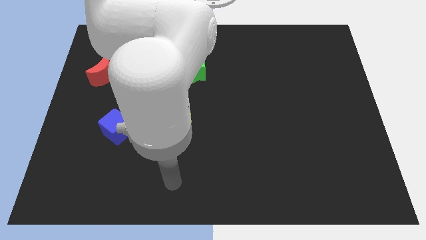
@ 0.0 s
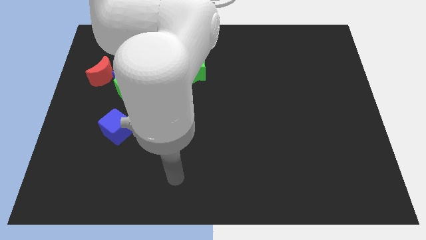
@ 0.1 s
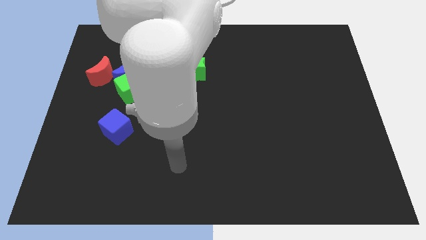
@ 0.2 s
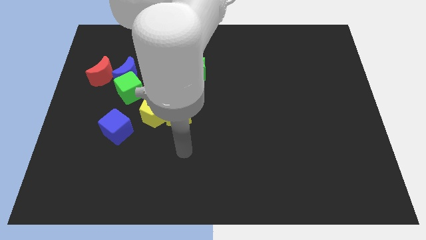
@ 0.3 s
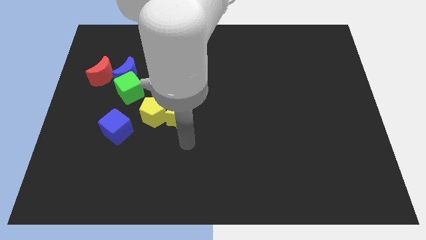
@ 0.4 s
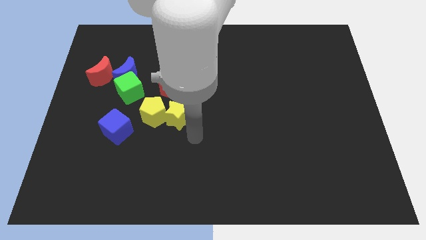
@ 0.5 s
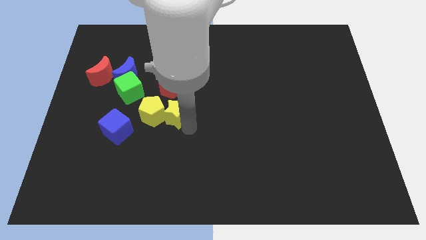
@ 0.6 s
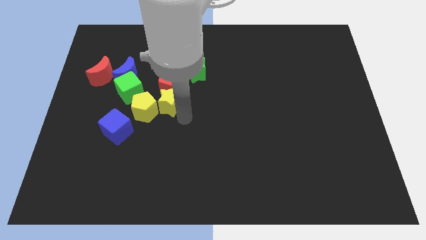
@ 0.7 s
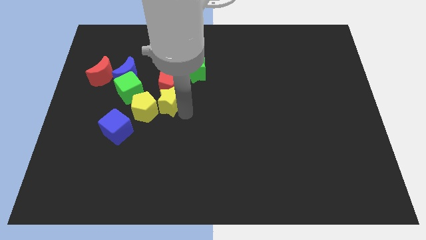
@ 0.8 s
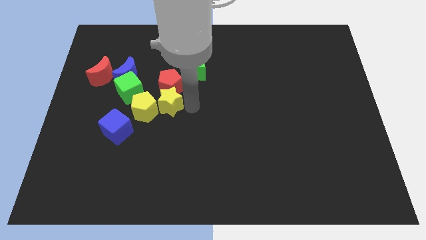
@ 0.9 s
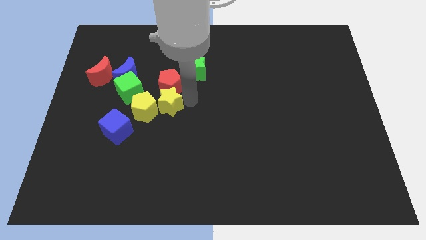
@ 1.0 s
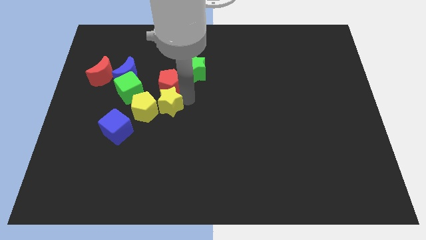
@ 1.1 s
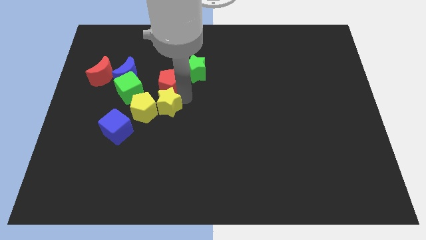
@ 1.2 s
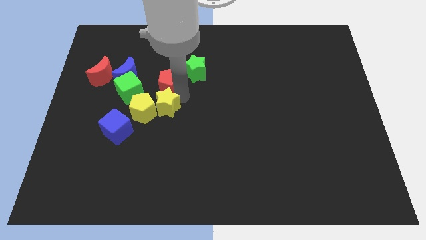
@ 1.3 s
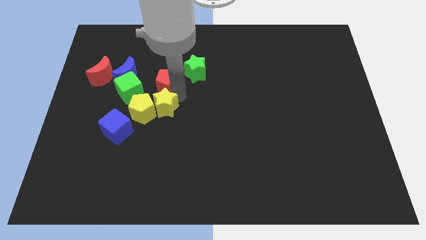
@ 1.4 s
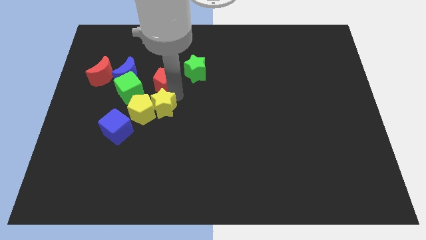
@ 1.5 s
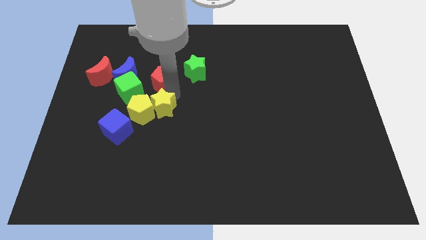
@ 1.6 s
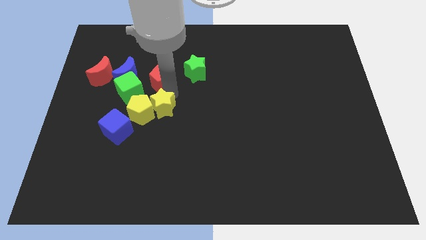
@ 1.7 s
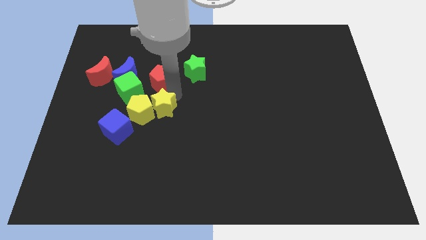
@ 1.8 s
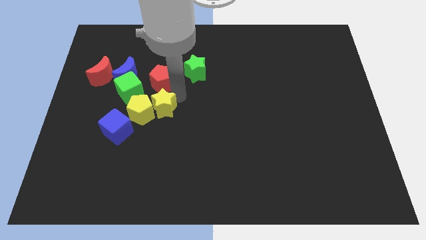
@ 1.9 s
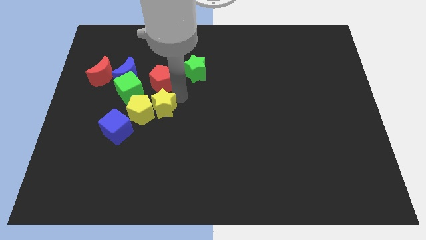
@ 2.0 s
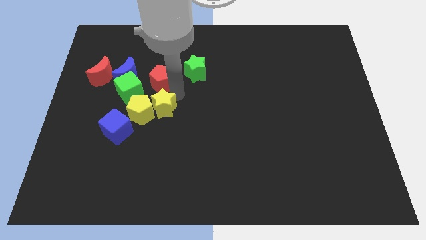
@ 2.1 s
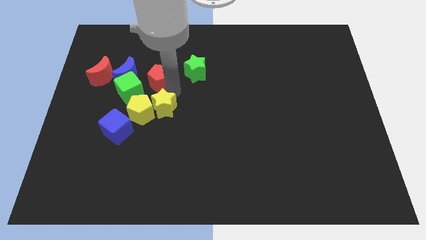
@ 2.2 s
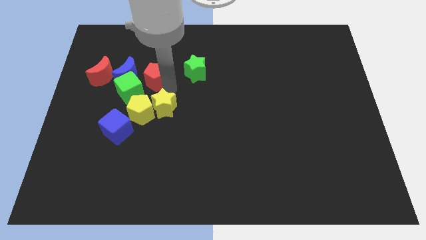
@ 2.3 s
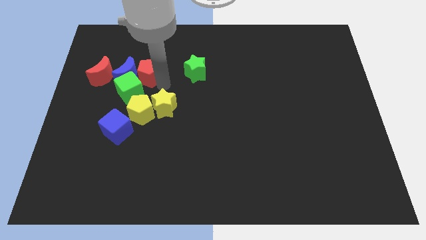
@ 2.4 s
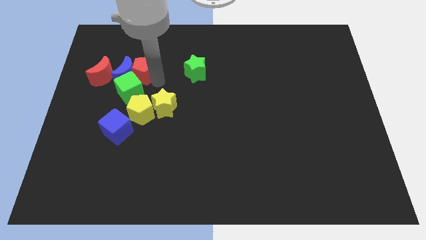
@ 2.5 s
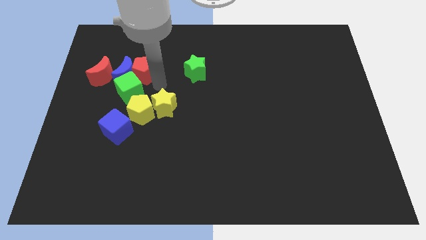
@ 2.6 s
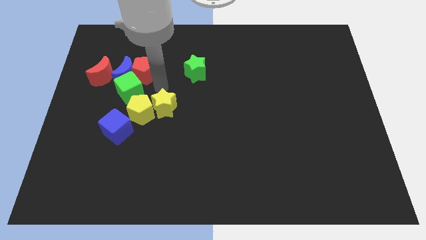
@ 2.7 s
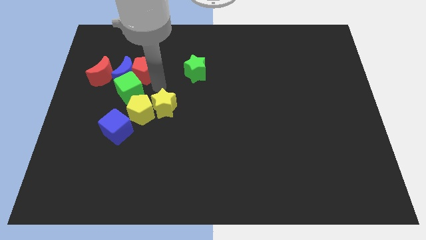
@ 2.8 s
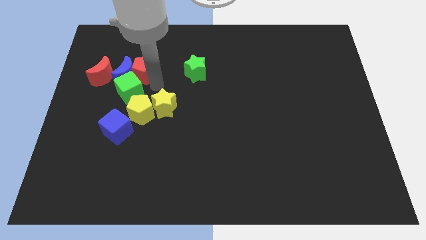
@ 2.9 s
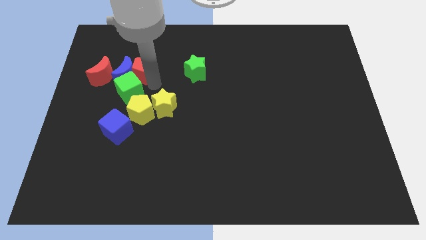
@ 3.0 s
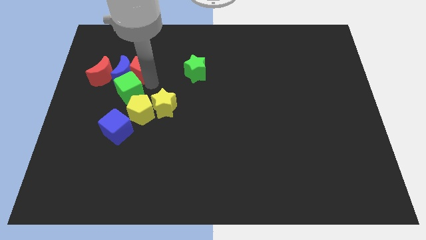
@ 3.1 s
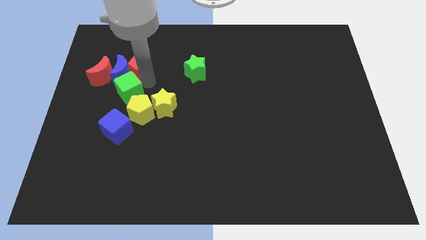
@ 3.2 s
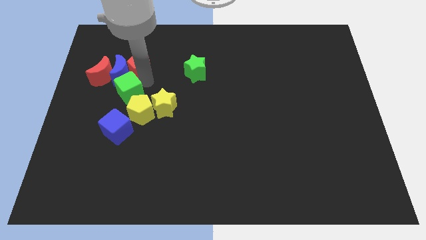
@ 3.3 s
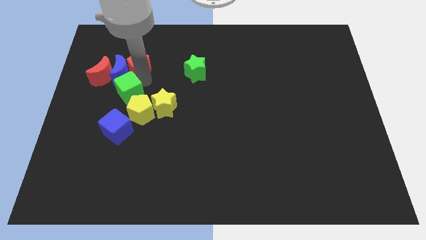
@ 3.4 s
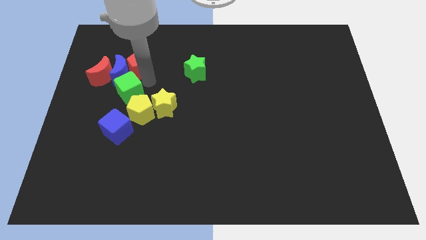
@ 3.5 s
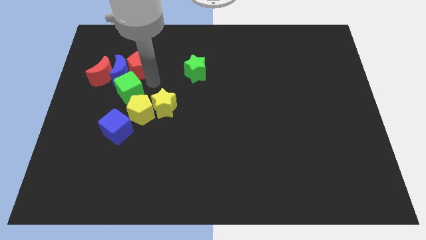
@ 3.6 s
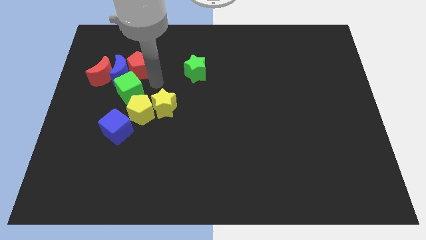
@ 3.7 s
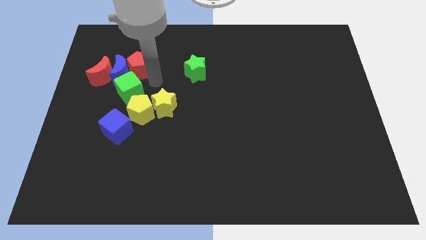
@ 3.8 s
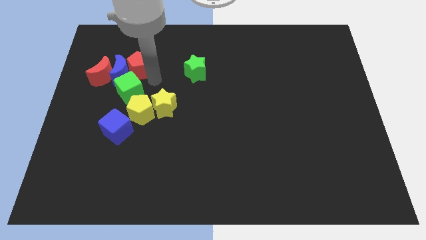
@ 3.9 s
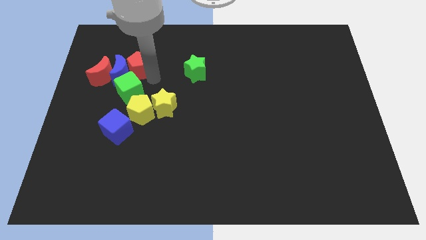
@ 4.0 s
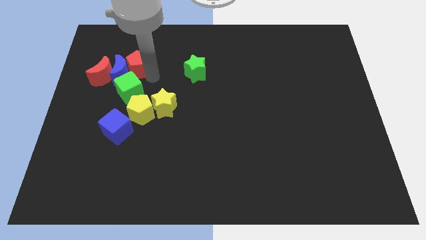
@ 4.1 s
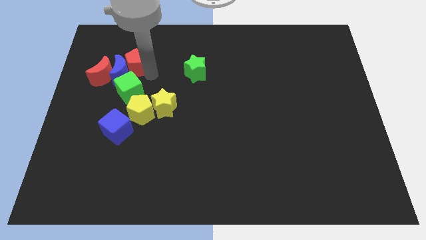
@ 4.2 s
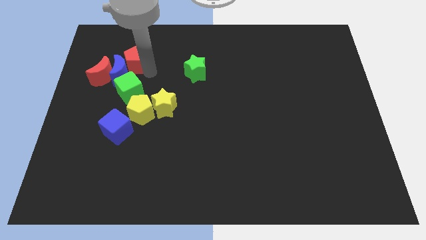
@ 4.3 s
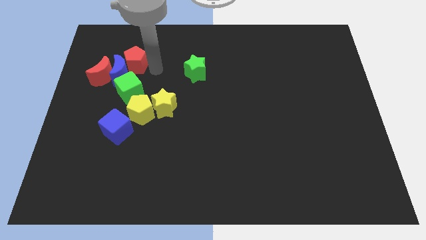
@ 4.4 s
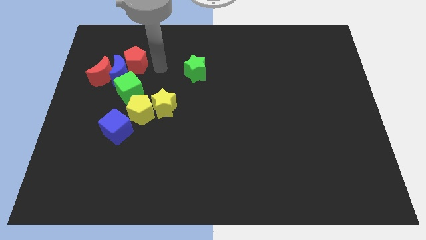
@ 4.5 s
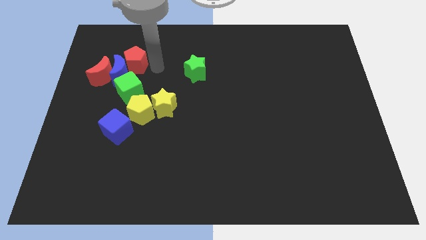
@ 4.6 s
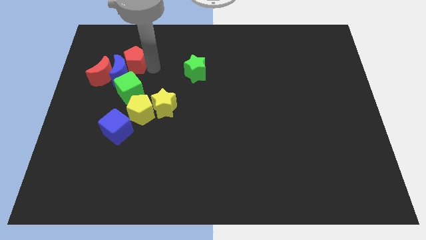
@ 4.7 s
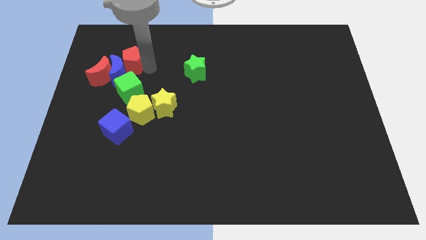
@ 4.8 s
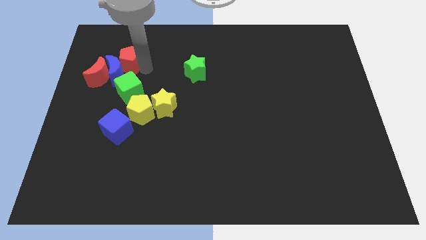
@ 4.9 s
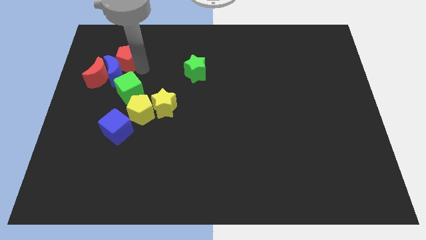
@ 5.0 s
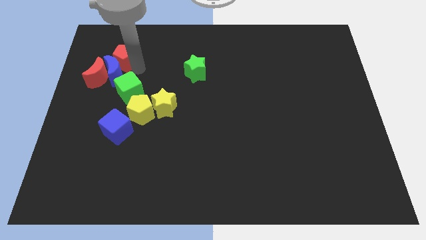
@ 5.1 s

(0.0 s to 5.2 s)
slide the red pentagon to the top left of the blue moon

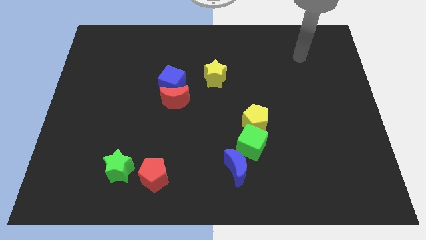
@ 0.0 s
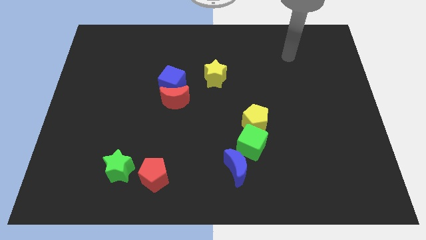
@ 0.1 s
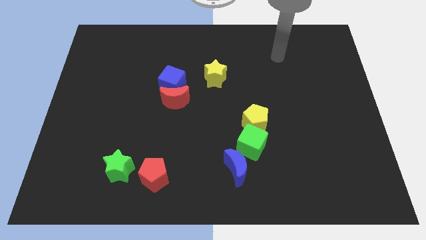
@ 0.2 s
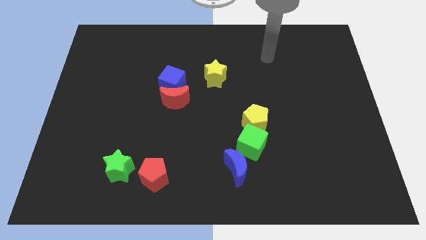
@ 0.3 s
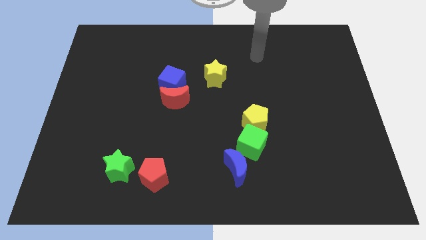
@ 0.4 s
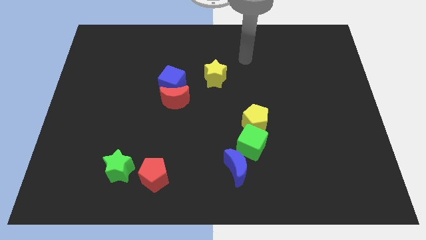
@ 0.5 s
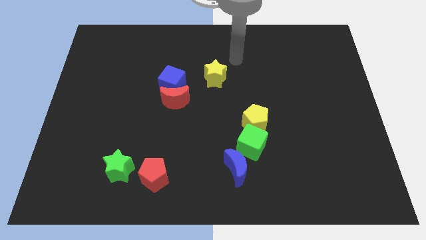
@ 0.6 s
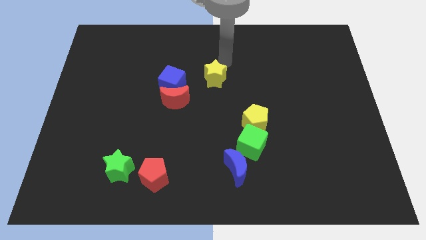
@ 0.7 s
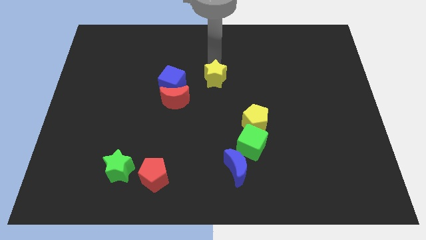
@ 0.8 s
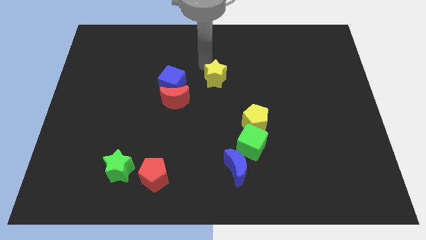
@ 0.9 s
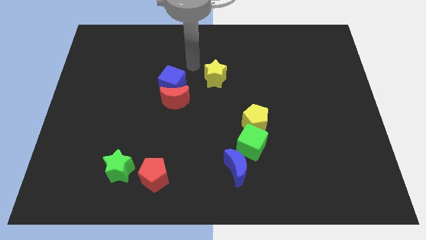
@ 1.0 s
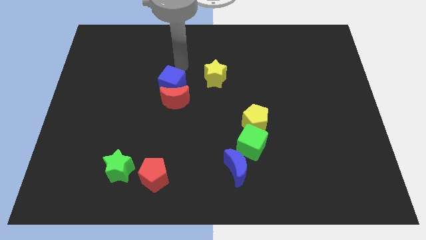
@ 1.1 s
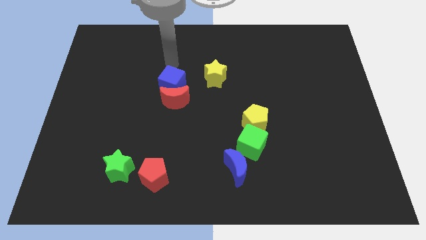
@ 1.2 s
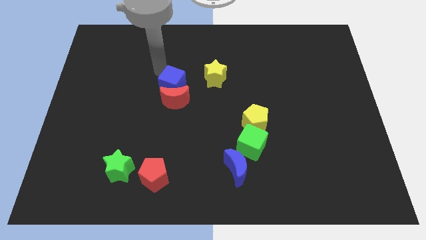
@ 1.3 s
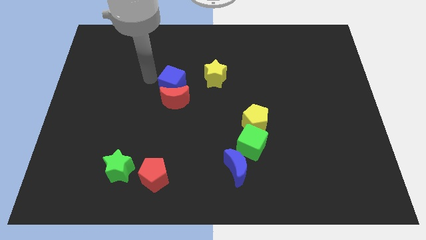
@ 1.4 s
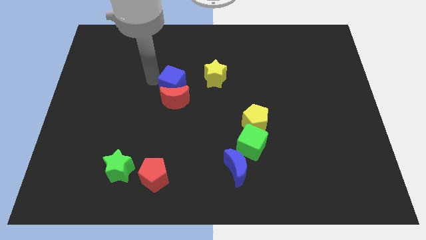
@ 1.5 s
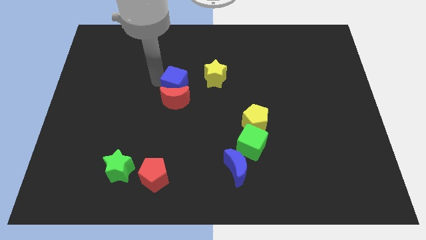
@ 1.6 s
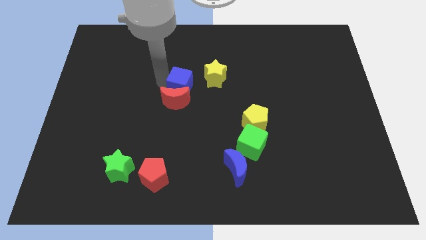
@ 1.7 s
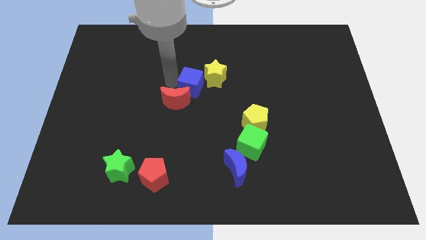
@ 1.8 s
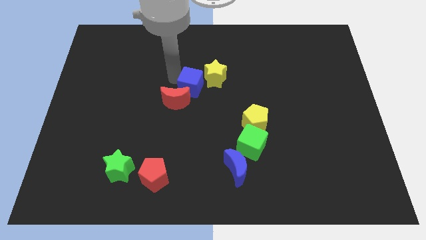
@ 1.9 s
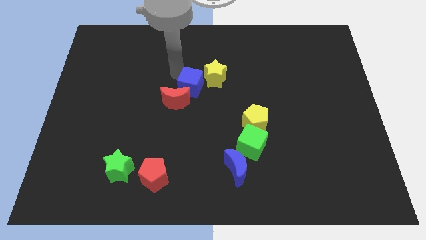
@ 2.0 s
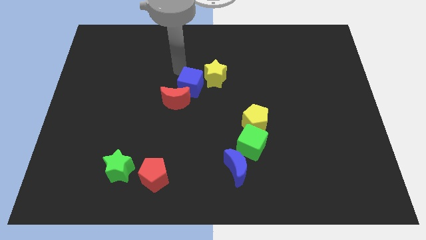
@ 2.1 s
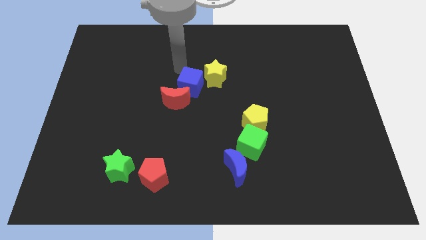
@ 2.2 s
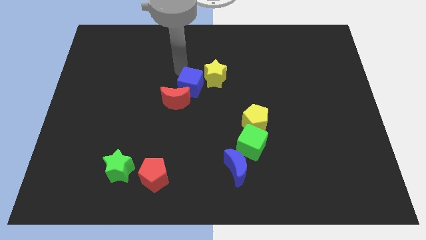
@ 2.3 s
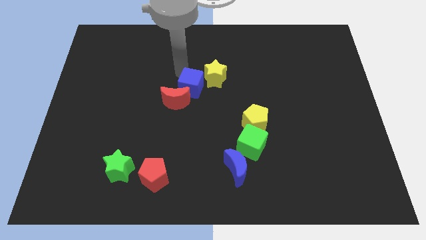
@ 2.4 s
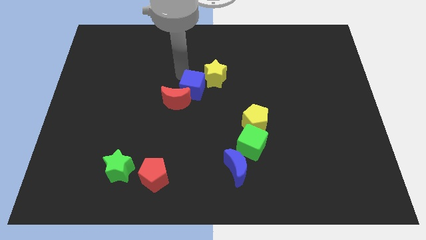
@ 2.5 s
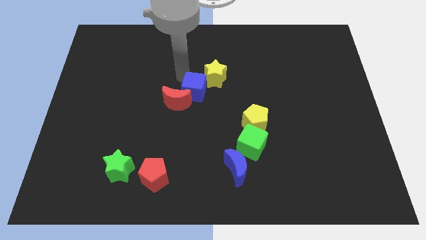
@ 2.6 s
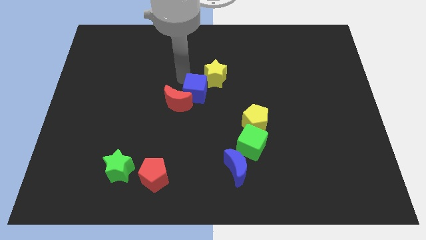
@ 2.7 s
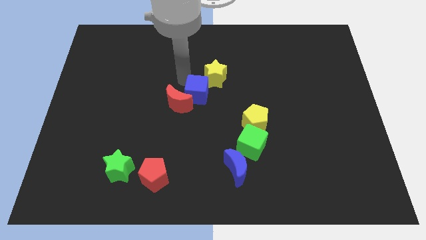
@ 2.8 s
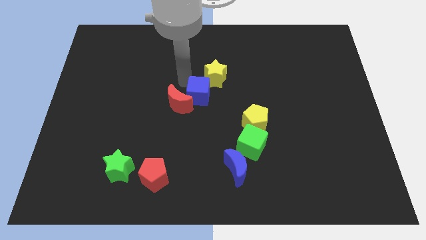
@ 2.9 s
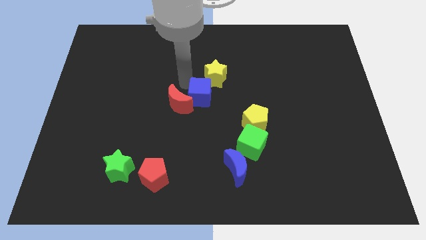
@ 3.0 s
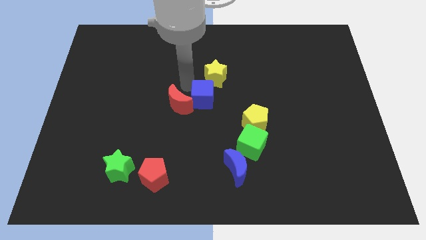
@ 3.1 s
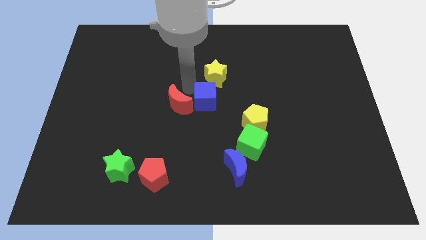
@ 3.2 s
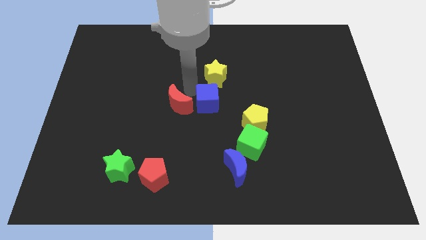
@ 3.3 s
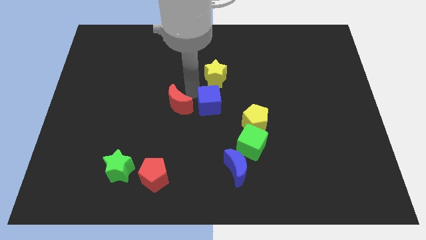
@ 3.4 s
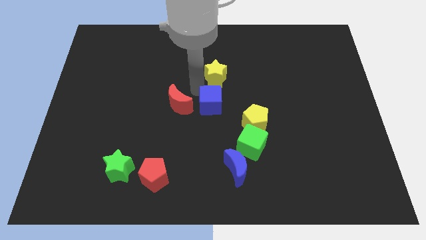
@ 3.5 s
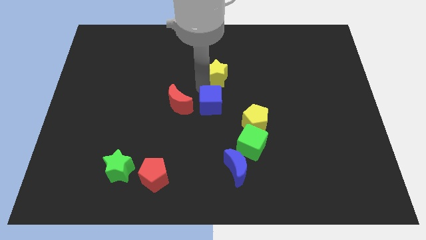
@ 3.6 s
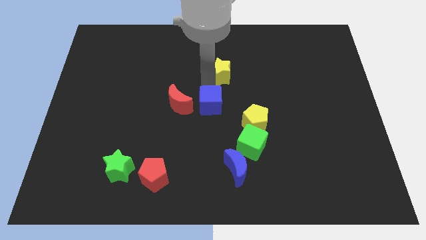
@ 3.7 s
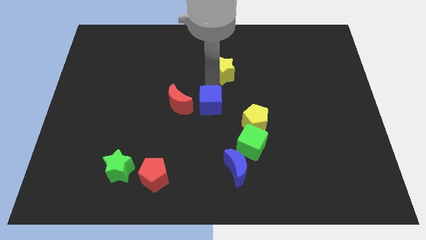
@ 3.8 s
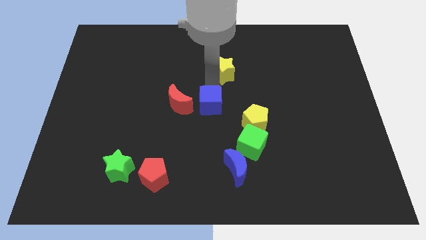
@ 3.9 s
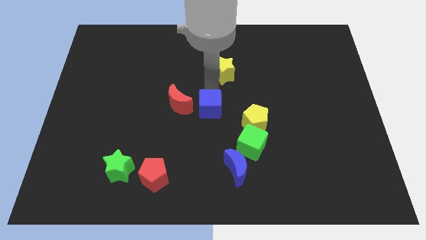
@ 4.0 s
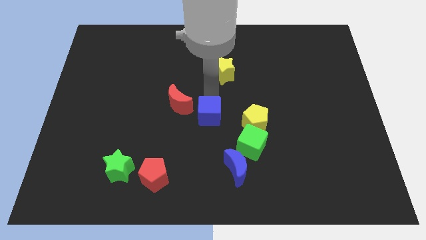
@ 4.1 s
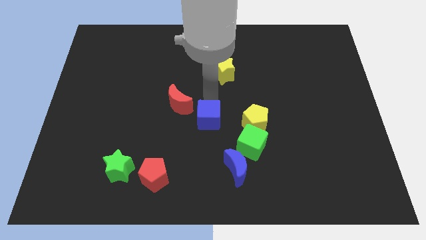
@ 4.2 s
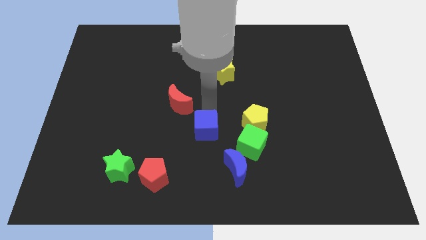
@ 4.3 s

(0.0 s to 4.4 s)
move the blue cube to the top left side of the blue moon
